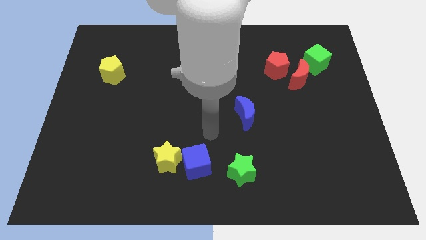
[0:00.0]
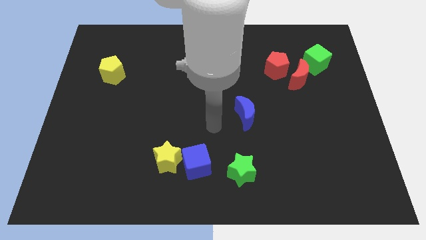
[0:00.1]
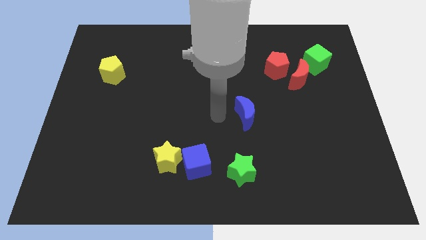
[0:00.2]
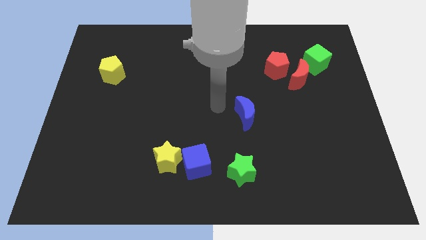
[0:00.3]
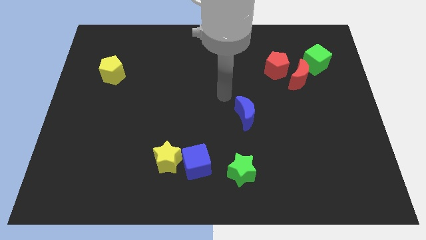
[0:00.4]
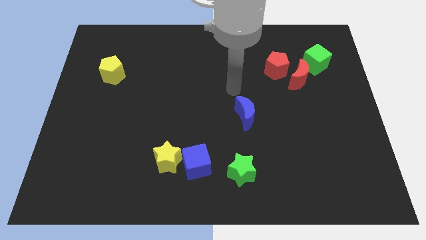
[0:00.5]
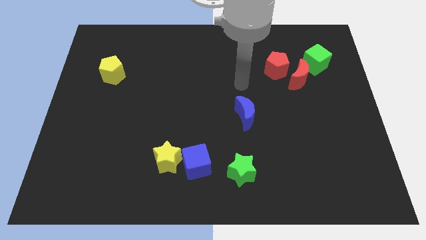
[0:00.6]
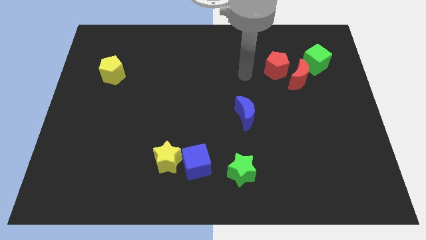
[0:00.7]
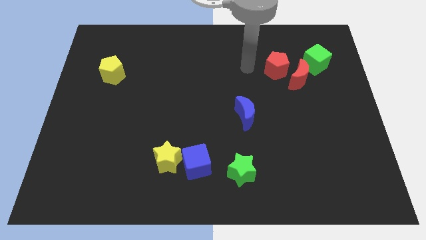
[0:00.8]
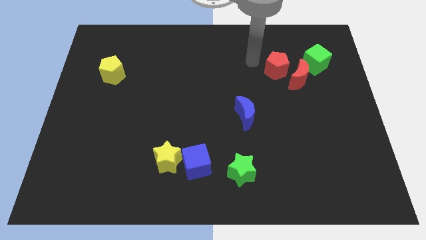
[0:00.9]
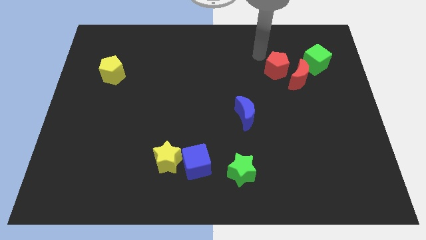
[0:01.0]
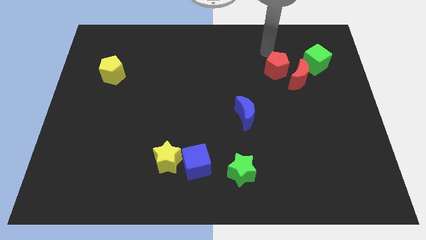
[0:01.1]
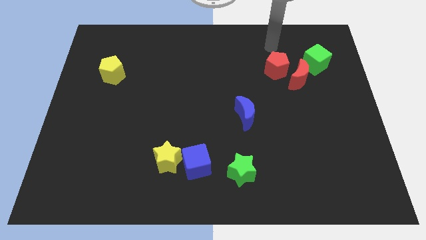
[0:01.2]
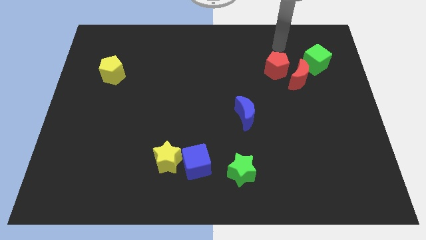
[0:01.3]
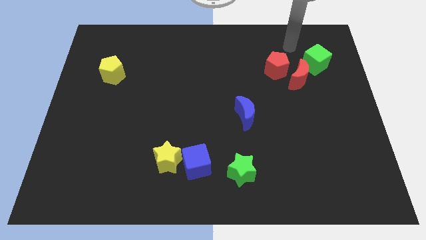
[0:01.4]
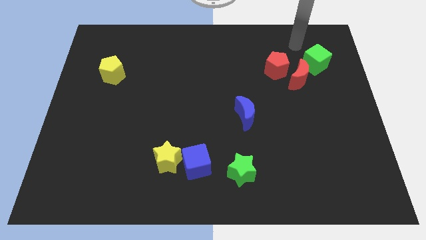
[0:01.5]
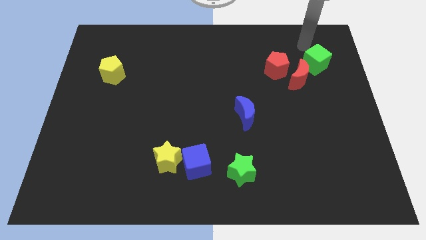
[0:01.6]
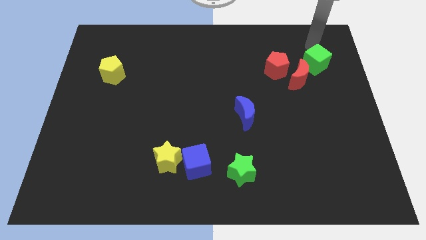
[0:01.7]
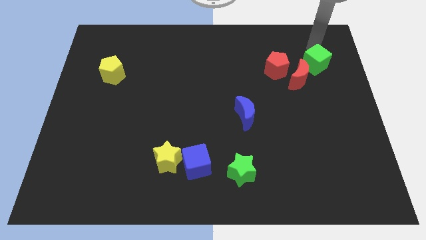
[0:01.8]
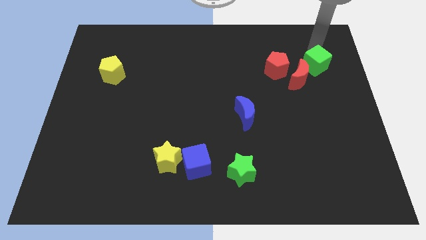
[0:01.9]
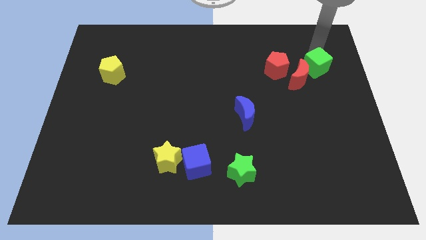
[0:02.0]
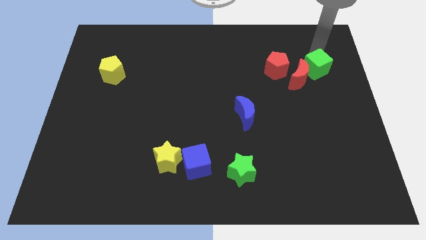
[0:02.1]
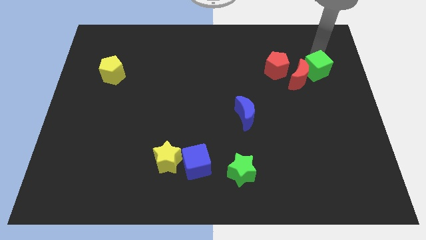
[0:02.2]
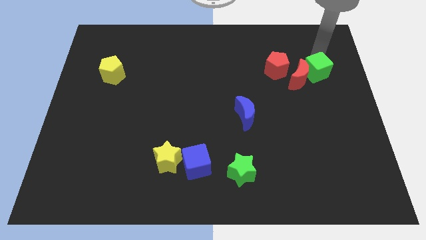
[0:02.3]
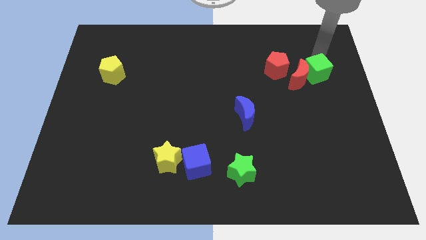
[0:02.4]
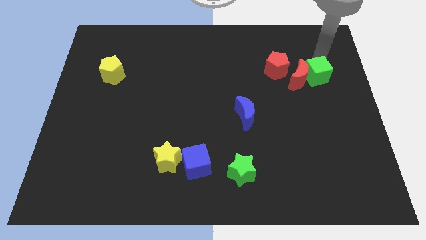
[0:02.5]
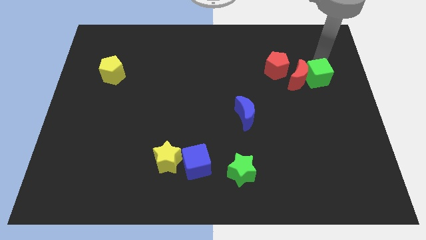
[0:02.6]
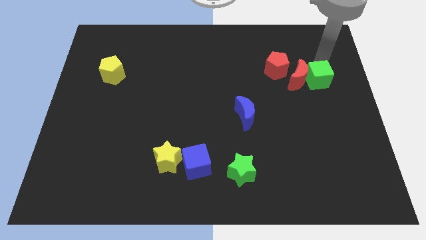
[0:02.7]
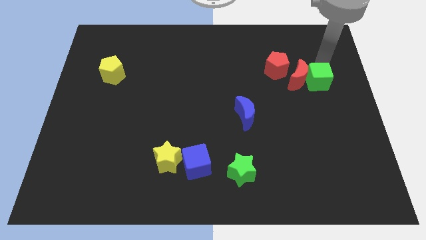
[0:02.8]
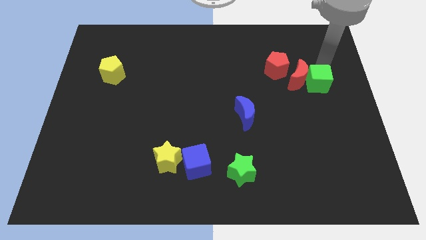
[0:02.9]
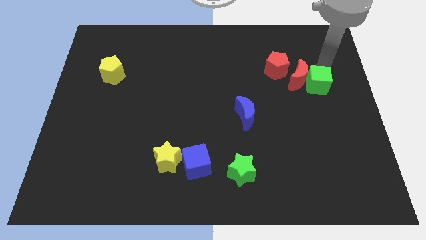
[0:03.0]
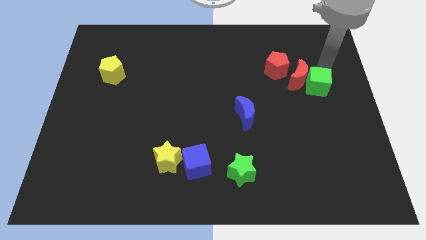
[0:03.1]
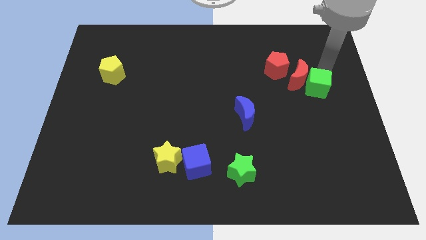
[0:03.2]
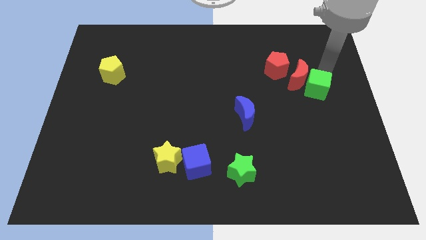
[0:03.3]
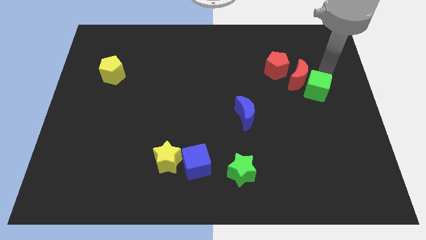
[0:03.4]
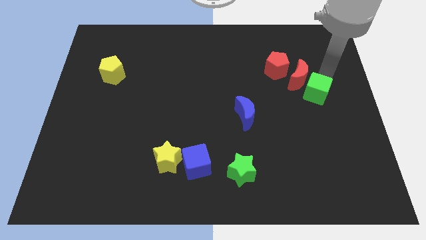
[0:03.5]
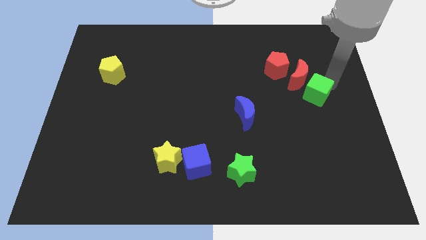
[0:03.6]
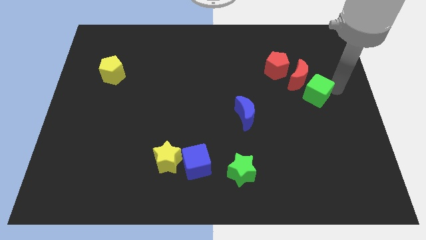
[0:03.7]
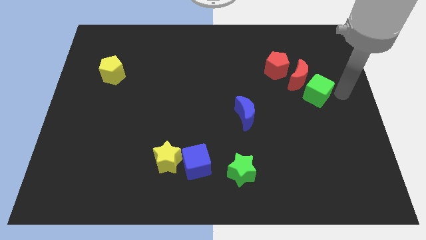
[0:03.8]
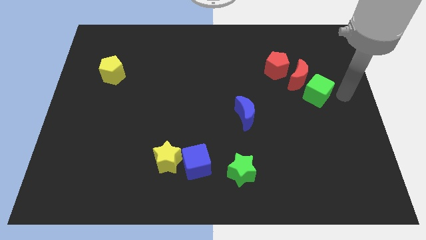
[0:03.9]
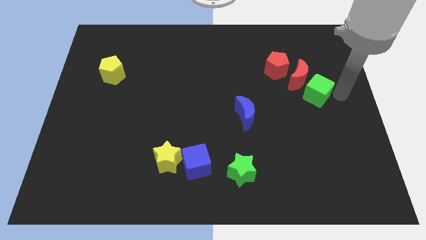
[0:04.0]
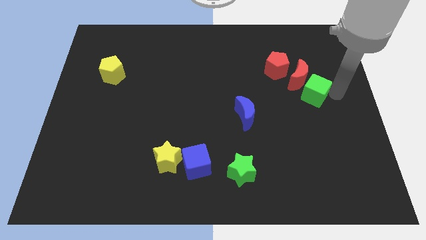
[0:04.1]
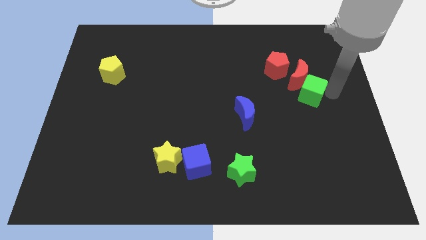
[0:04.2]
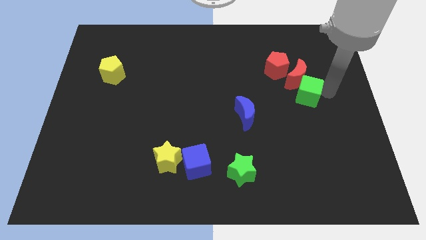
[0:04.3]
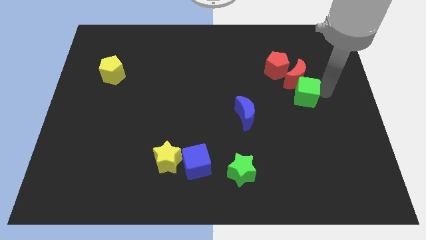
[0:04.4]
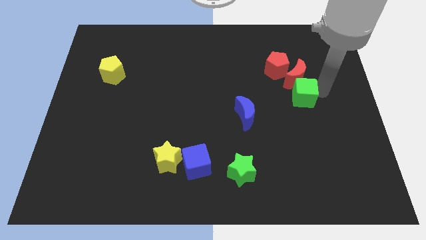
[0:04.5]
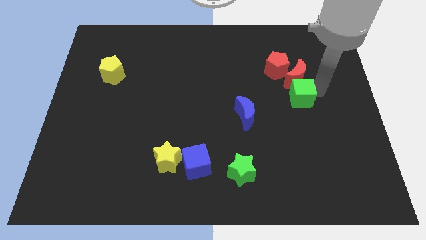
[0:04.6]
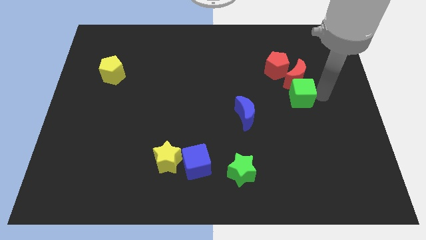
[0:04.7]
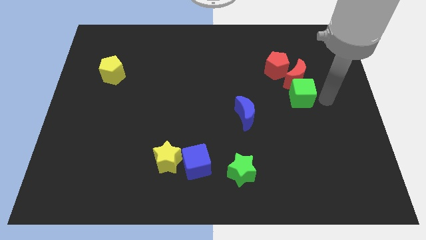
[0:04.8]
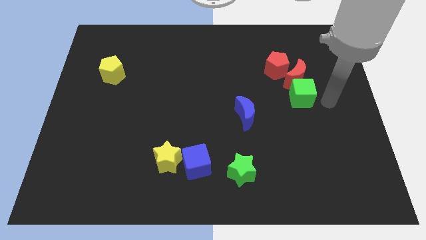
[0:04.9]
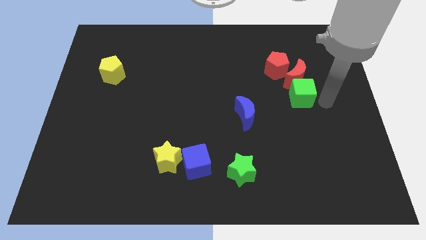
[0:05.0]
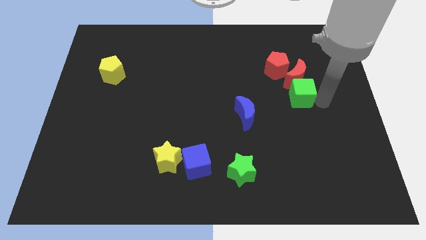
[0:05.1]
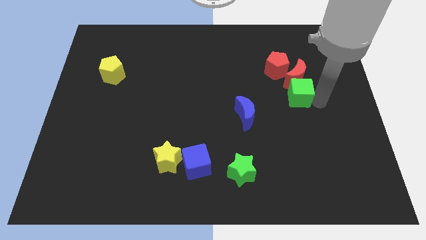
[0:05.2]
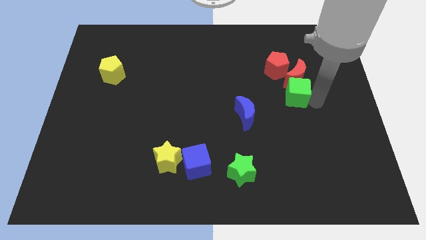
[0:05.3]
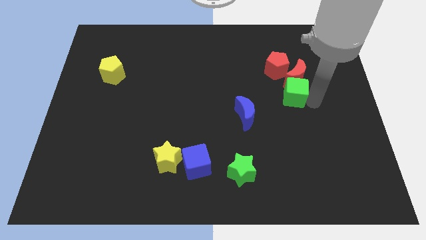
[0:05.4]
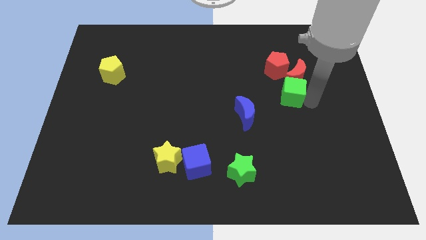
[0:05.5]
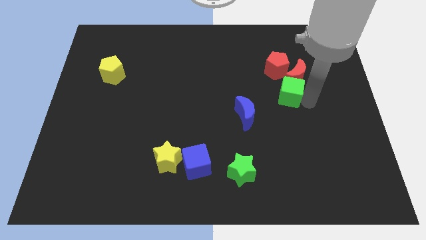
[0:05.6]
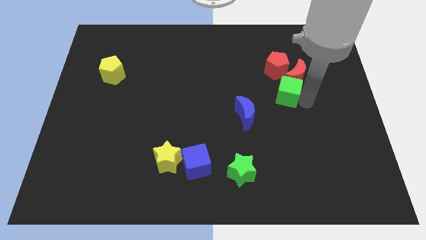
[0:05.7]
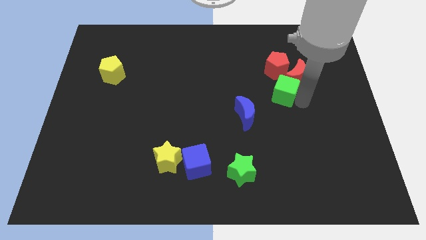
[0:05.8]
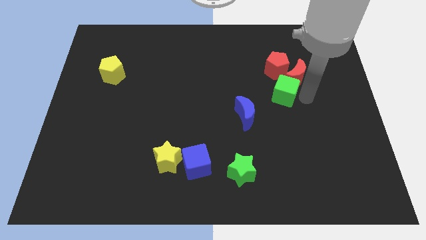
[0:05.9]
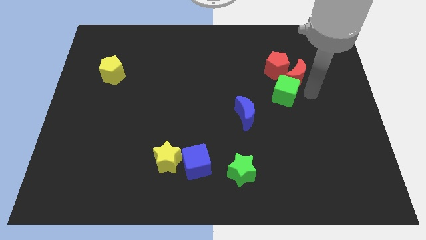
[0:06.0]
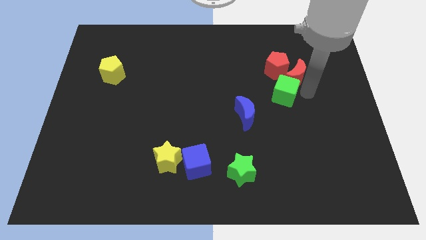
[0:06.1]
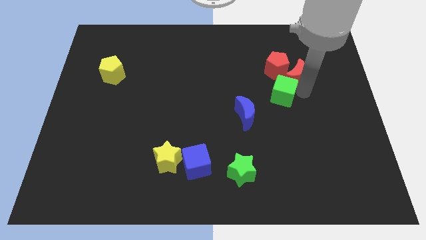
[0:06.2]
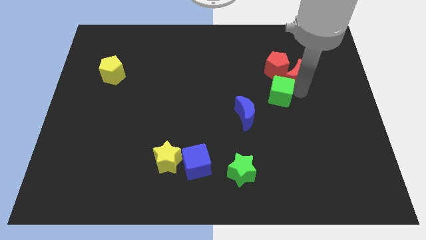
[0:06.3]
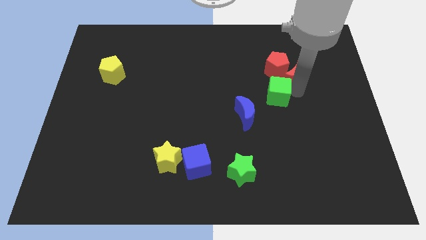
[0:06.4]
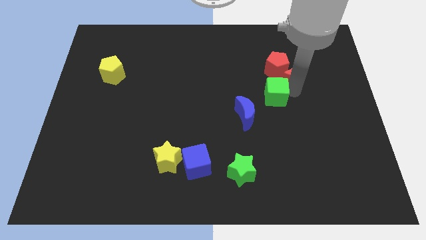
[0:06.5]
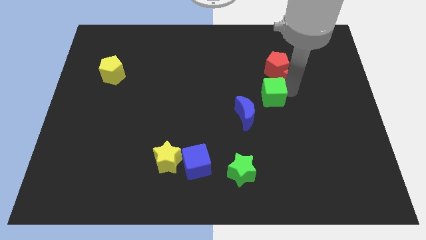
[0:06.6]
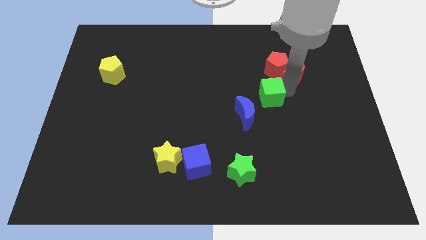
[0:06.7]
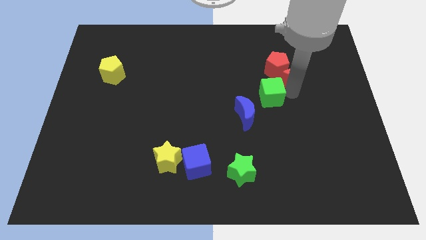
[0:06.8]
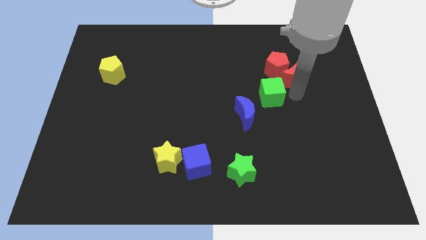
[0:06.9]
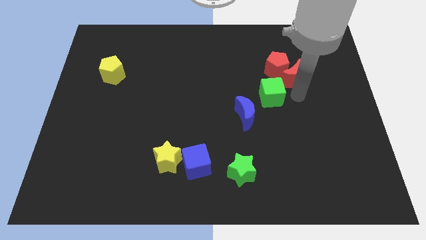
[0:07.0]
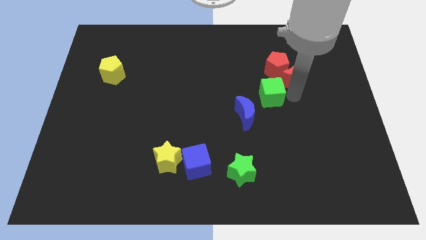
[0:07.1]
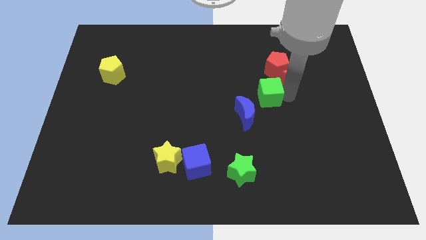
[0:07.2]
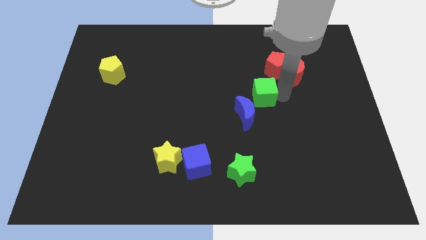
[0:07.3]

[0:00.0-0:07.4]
move the green cube to the center

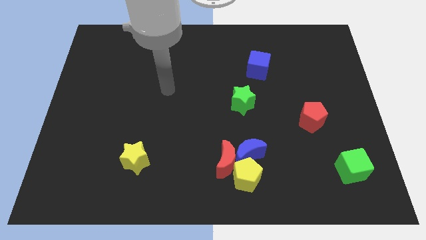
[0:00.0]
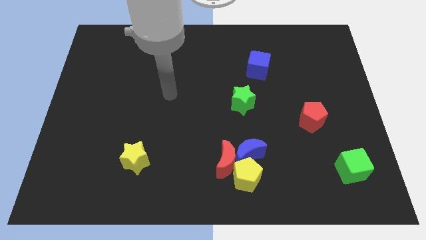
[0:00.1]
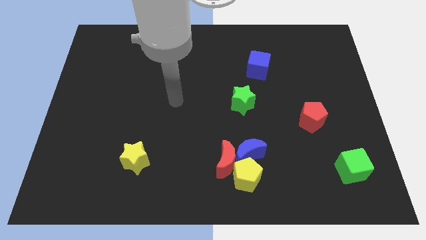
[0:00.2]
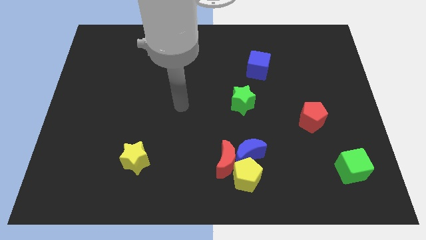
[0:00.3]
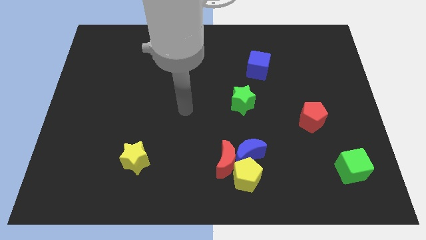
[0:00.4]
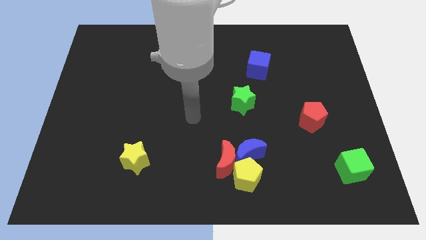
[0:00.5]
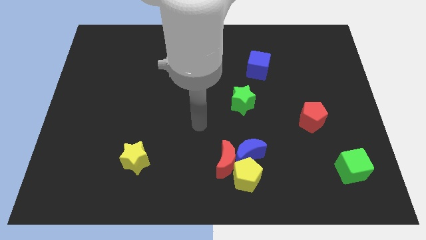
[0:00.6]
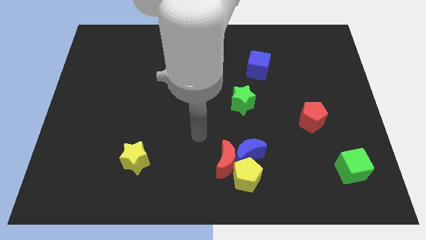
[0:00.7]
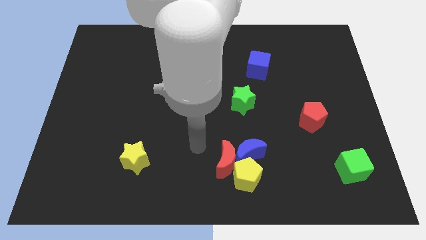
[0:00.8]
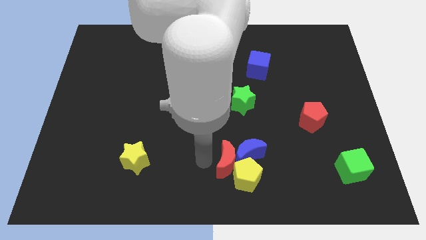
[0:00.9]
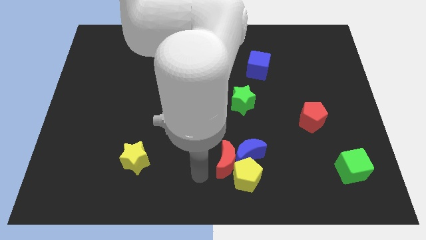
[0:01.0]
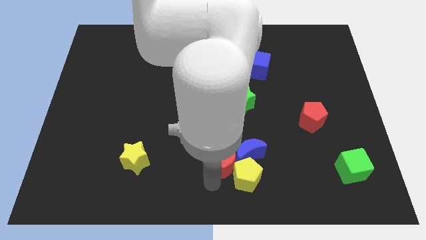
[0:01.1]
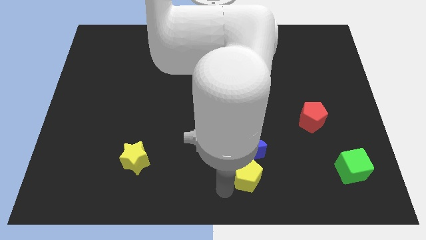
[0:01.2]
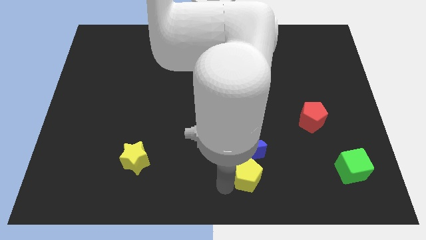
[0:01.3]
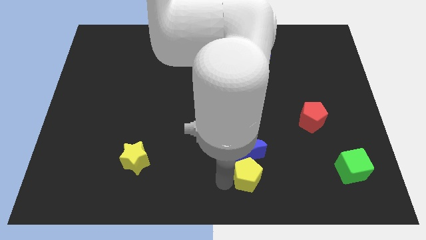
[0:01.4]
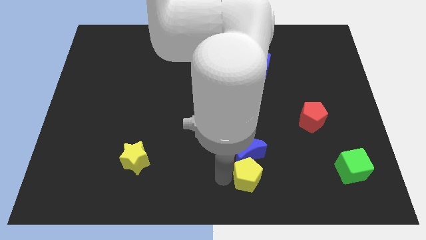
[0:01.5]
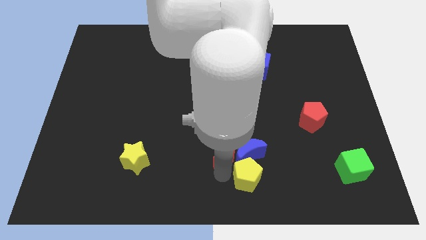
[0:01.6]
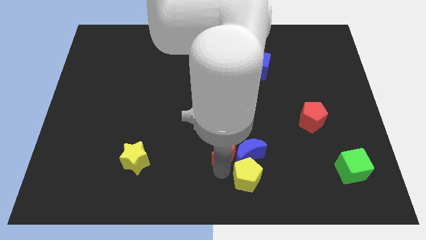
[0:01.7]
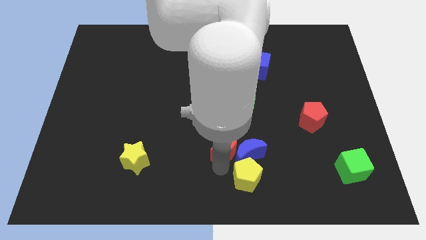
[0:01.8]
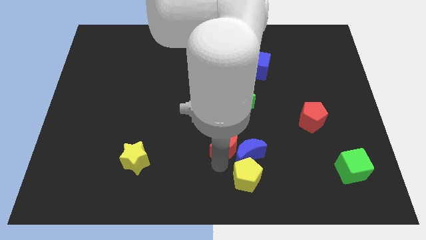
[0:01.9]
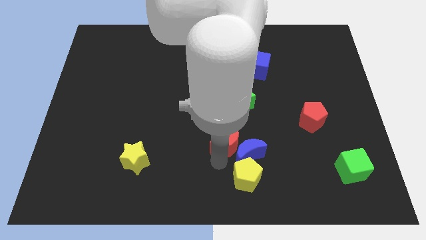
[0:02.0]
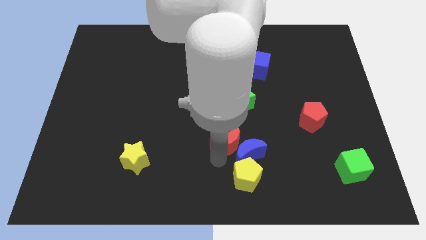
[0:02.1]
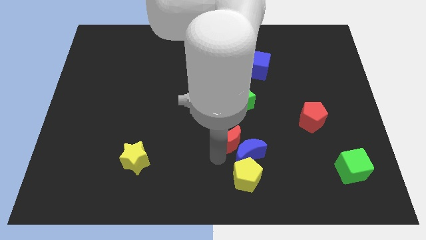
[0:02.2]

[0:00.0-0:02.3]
slide the red moon to the center of the board
